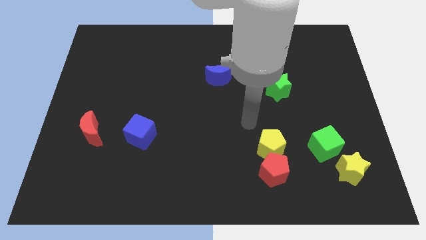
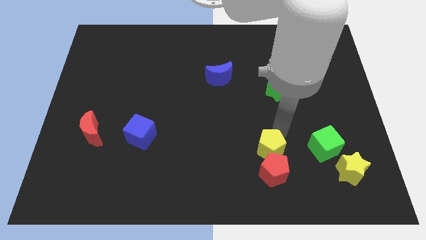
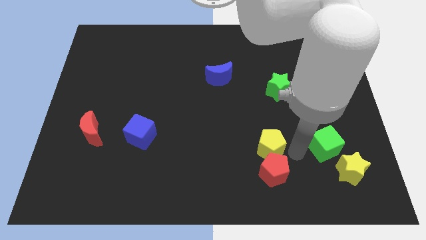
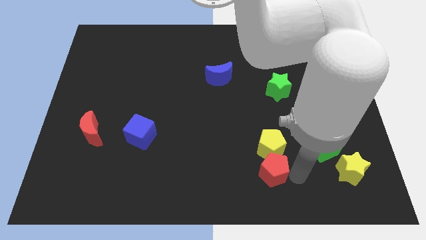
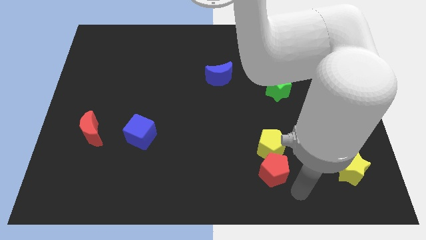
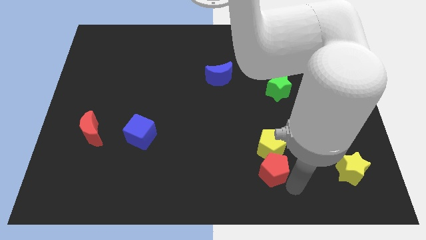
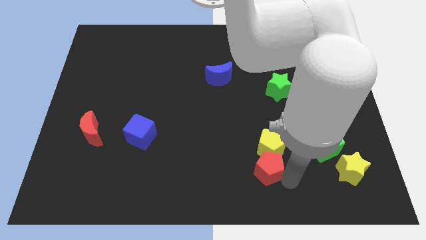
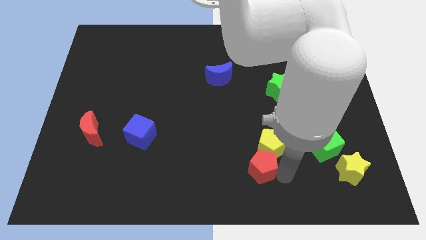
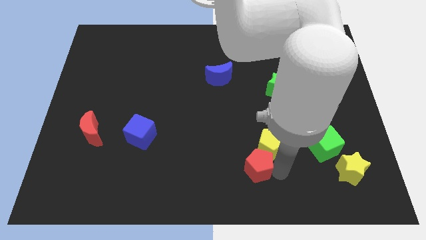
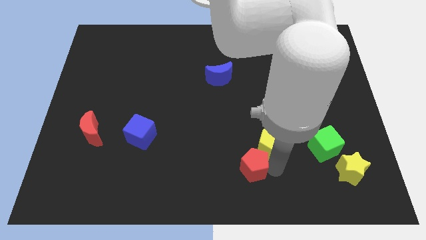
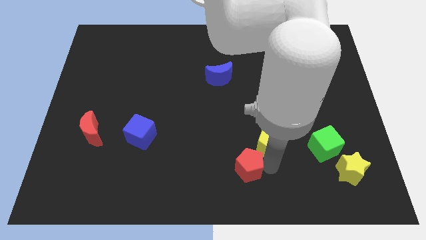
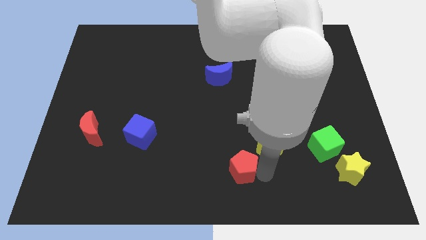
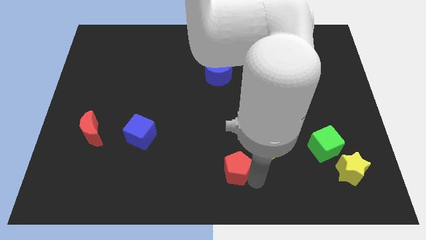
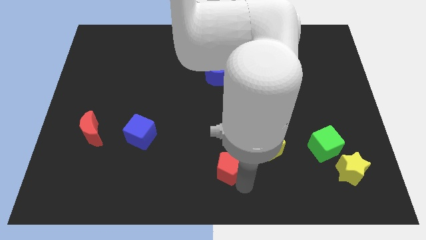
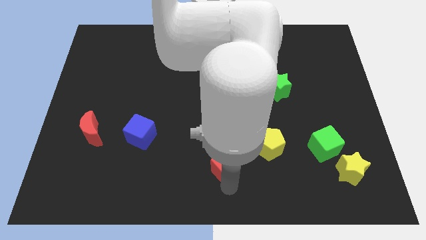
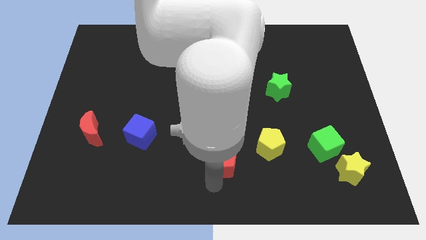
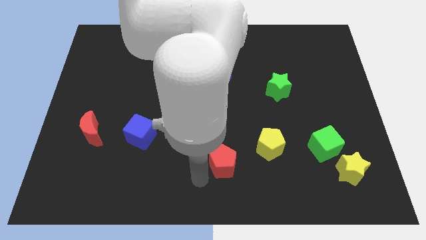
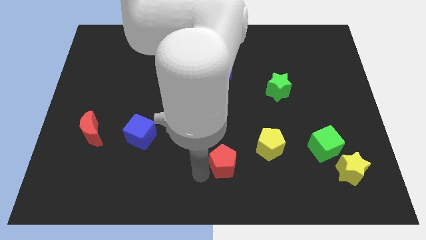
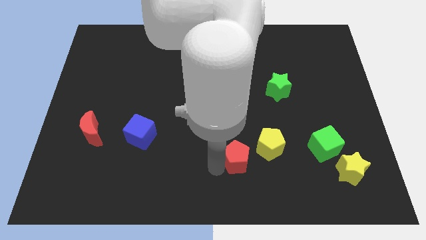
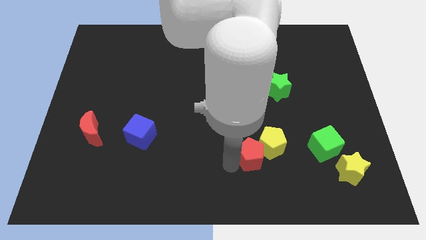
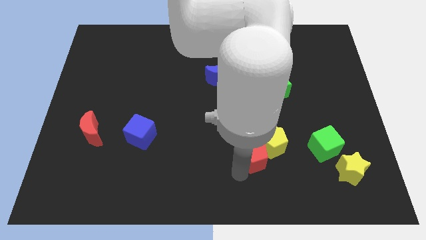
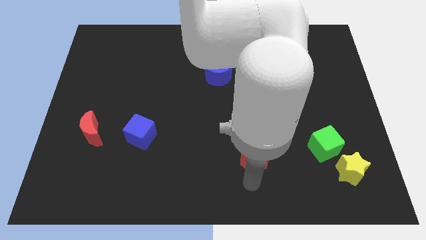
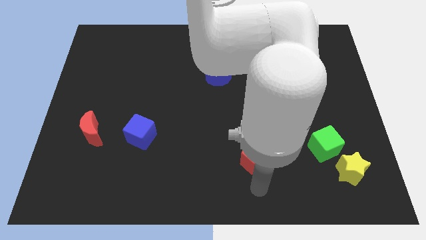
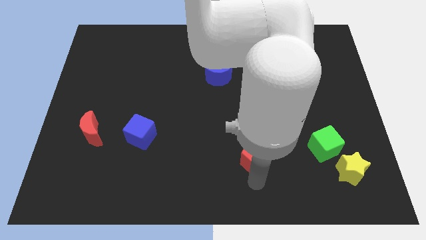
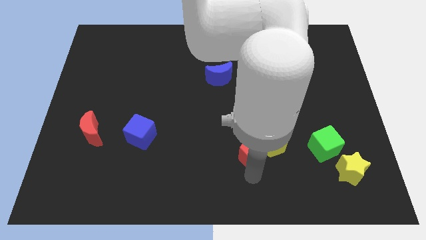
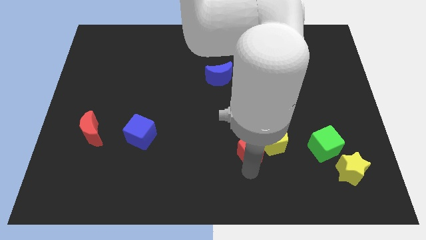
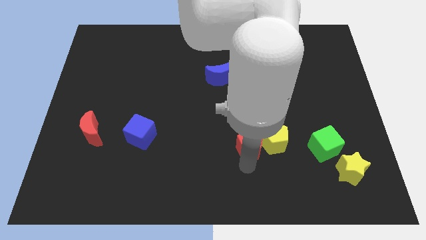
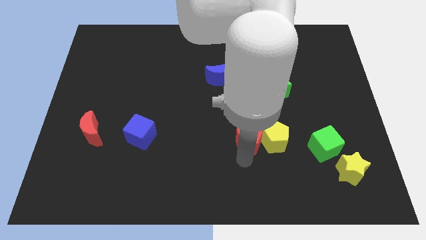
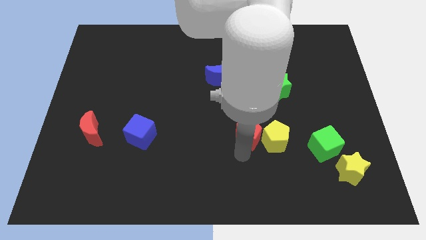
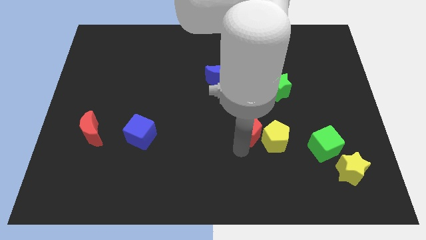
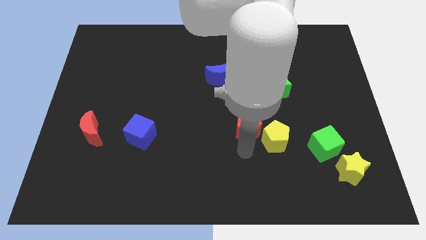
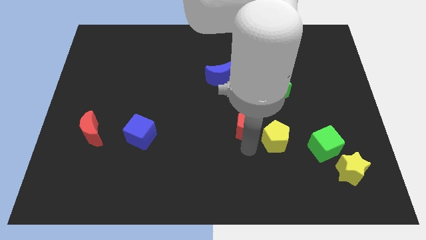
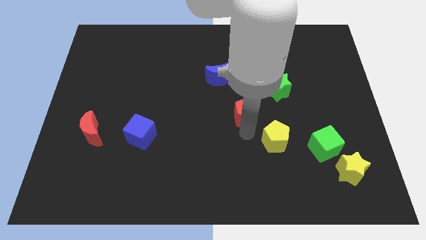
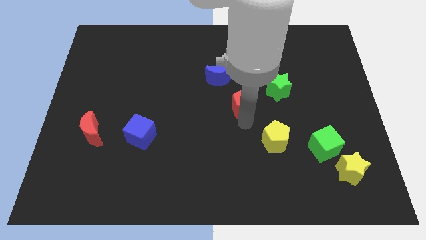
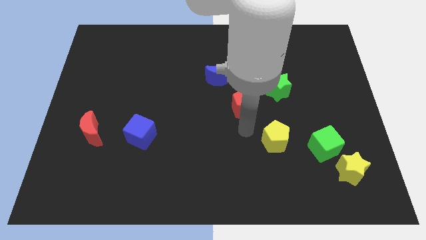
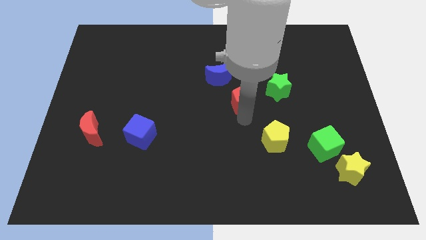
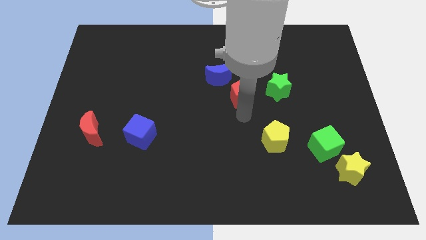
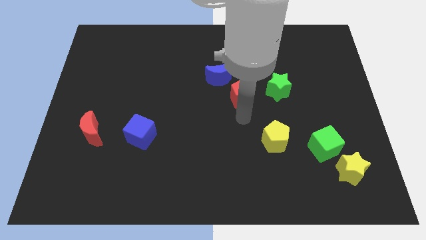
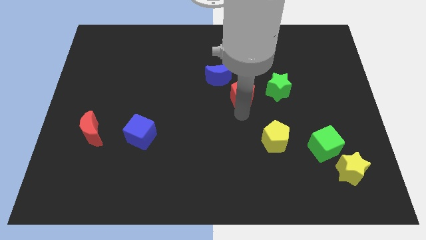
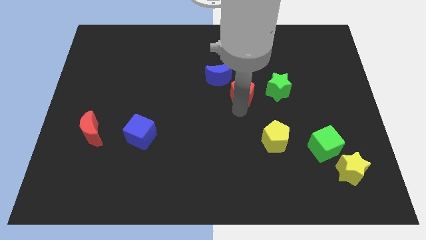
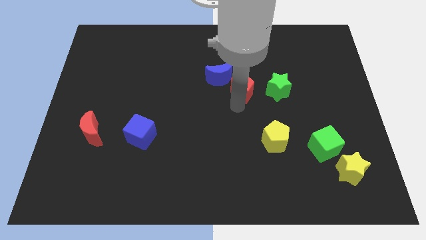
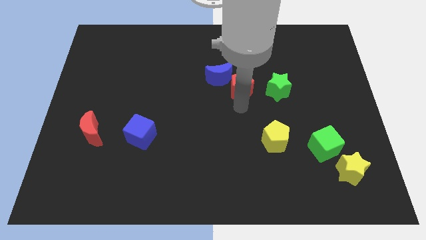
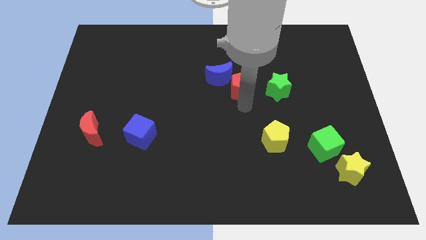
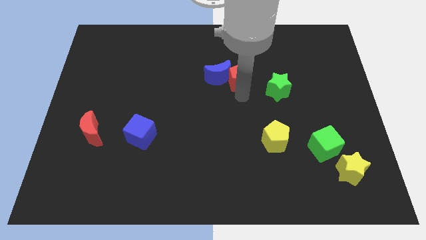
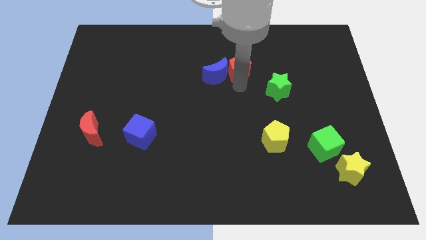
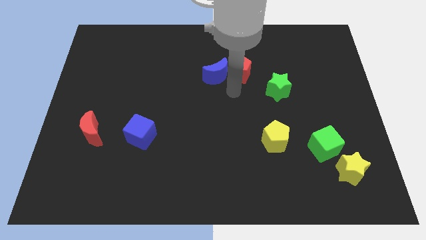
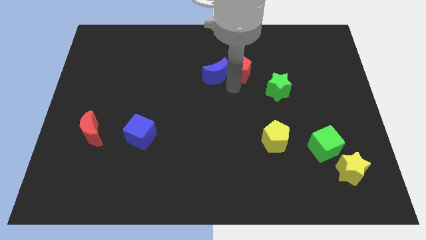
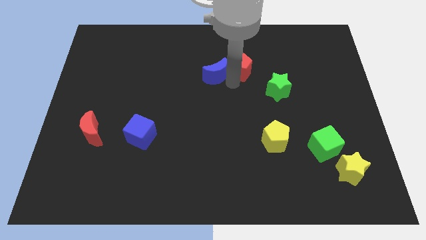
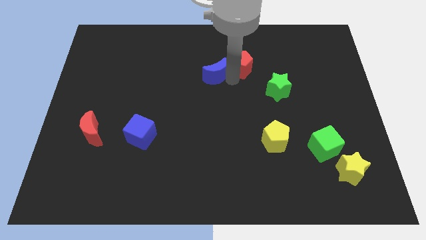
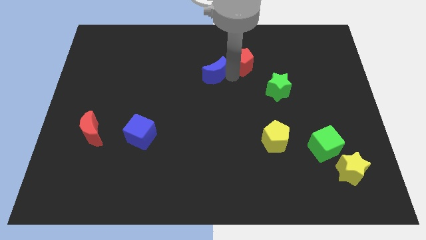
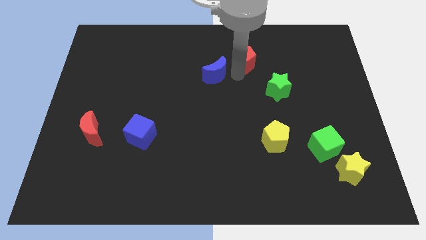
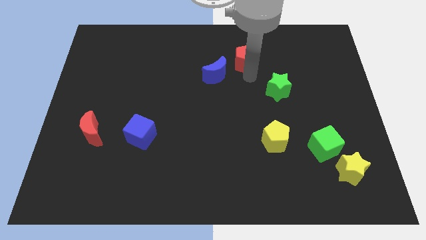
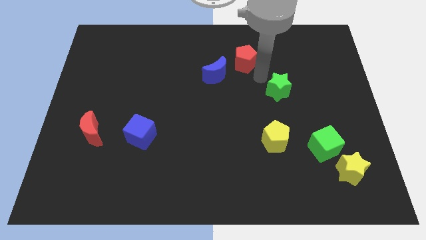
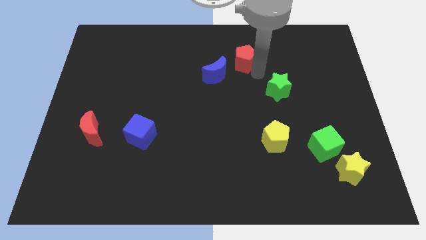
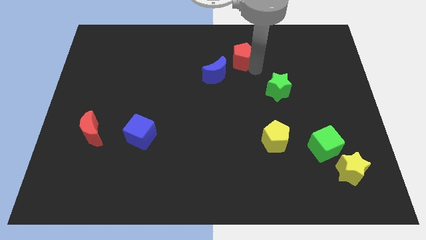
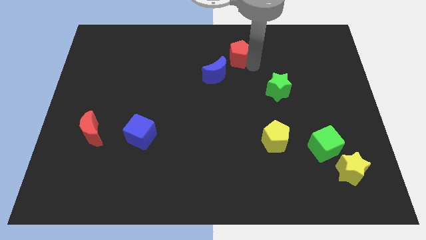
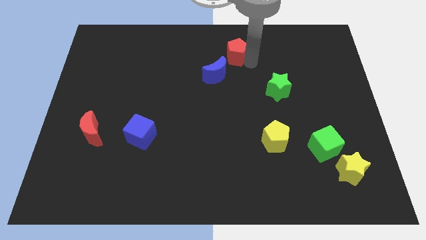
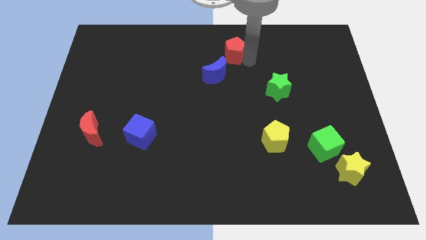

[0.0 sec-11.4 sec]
push the red pentagon to the top side
